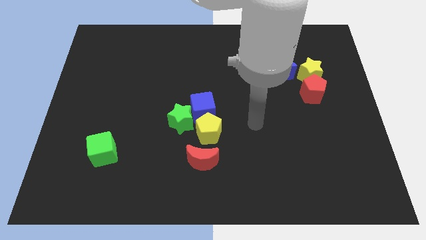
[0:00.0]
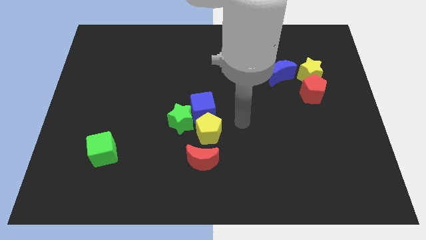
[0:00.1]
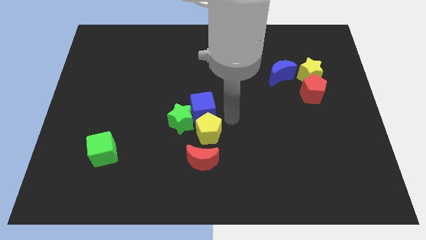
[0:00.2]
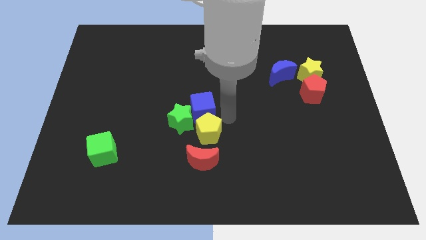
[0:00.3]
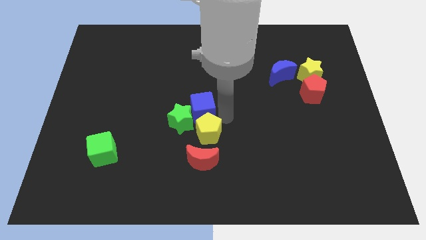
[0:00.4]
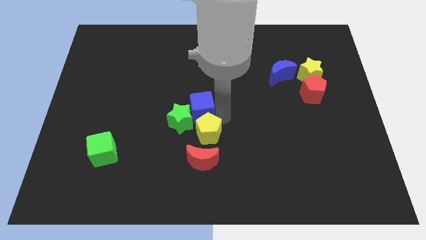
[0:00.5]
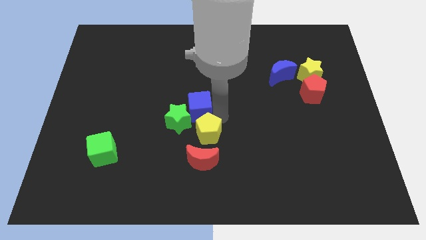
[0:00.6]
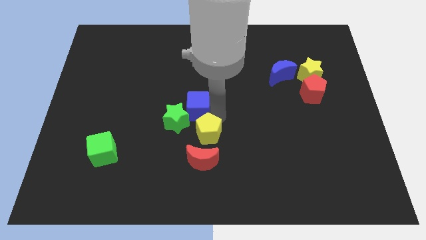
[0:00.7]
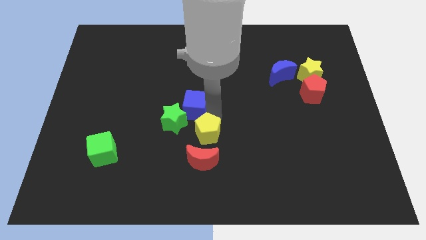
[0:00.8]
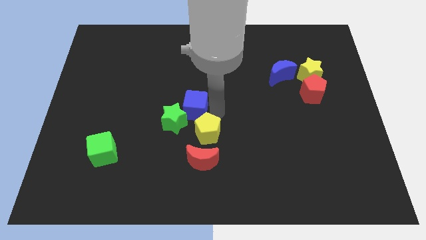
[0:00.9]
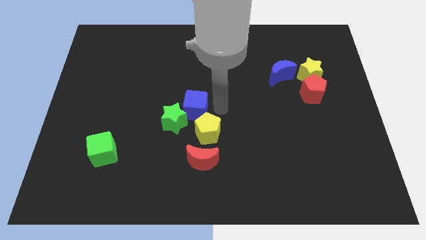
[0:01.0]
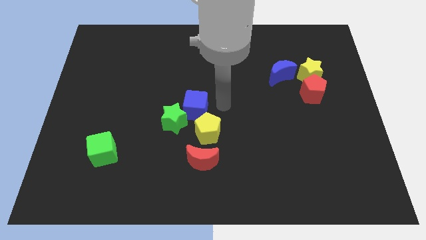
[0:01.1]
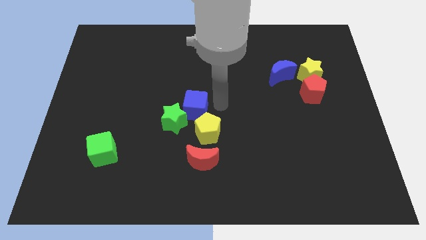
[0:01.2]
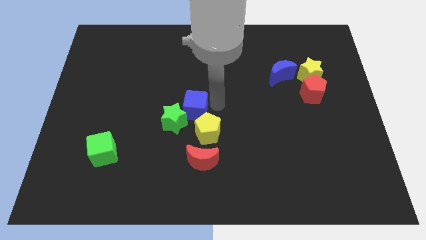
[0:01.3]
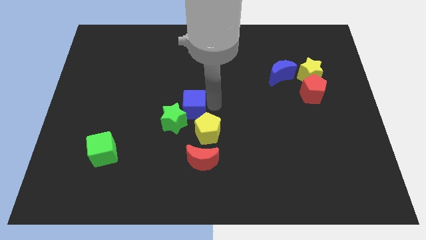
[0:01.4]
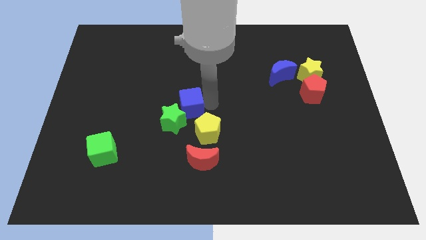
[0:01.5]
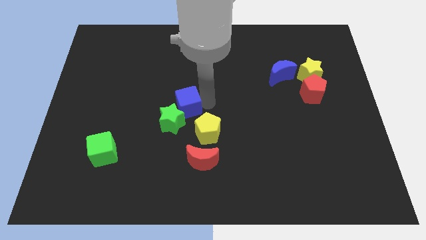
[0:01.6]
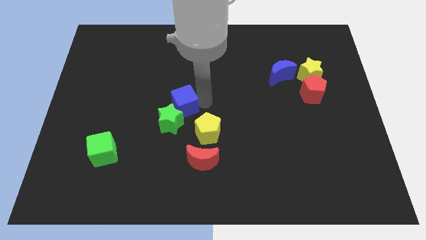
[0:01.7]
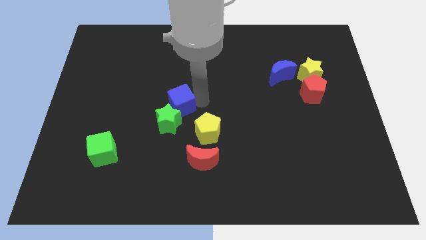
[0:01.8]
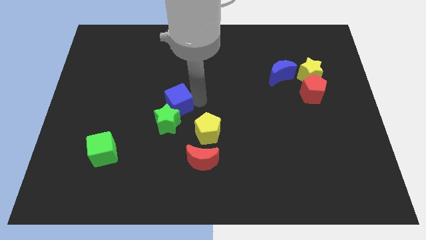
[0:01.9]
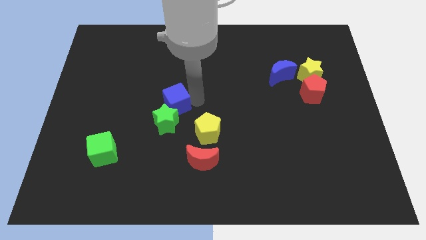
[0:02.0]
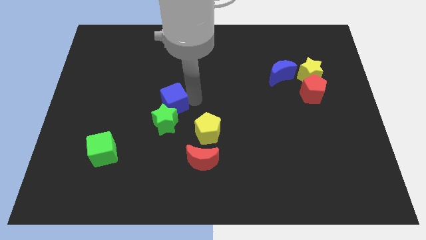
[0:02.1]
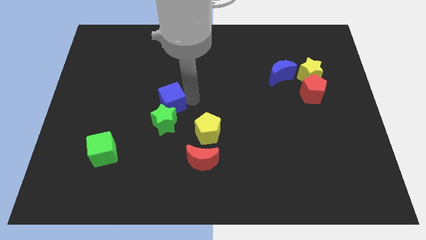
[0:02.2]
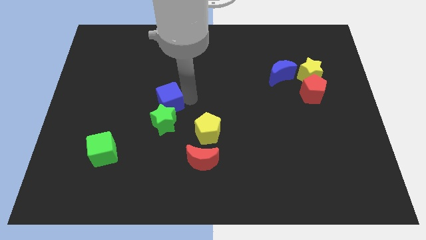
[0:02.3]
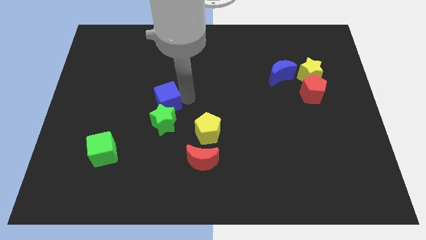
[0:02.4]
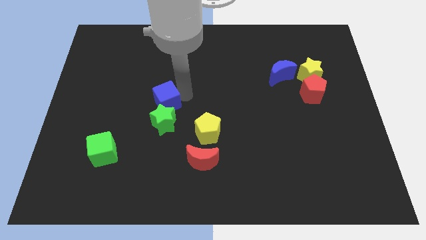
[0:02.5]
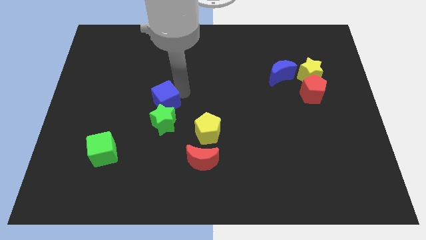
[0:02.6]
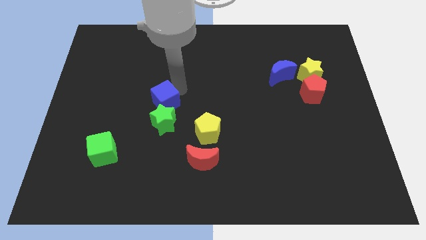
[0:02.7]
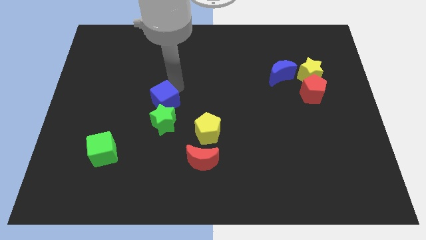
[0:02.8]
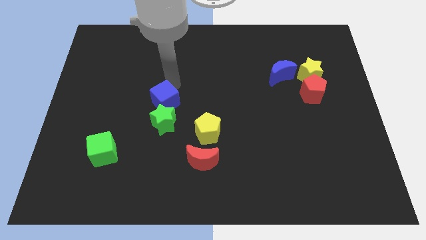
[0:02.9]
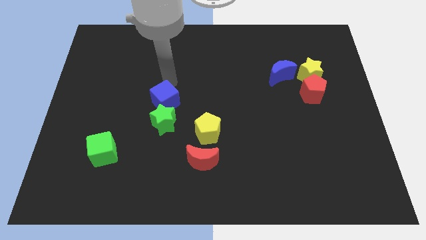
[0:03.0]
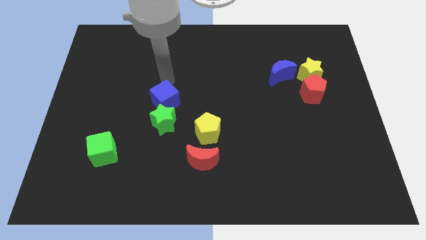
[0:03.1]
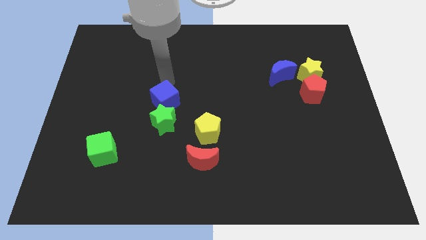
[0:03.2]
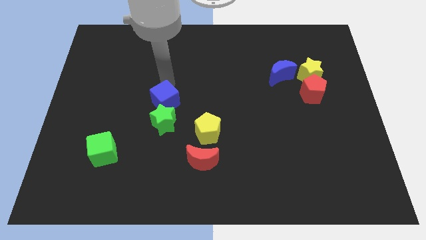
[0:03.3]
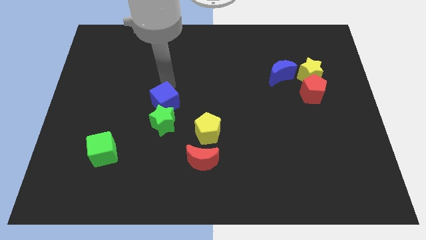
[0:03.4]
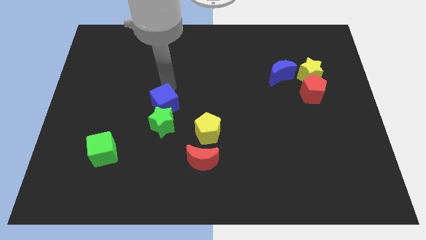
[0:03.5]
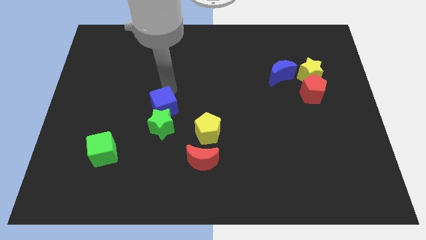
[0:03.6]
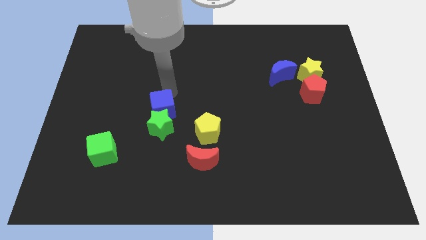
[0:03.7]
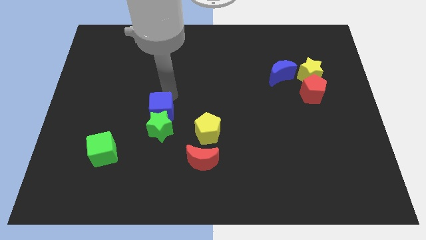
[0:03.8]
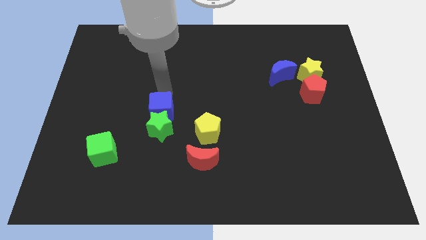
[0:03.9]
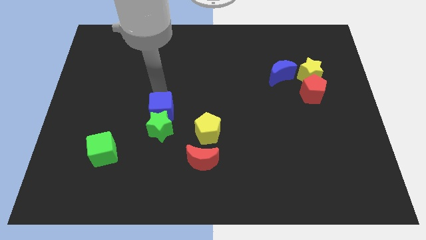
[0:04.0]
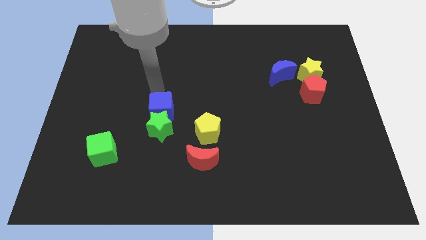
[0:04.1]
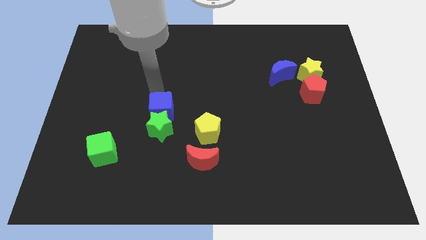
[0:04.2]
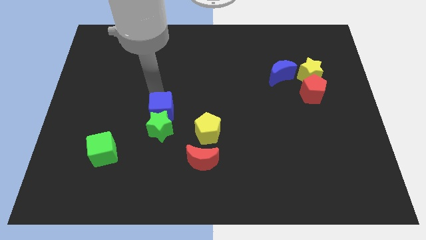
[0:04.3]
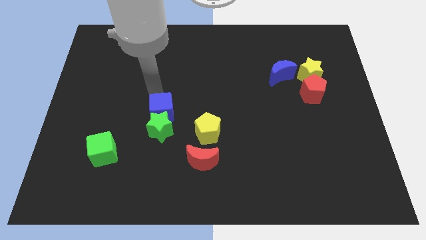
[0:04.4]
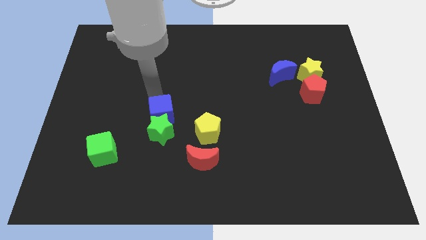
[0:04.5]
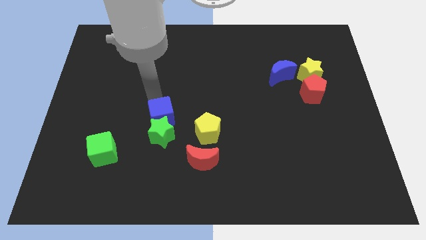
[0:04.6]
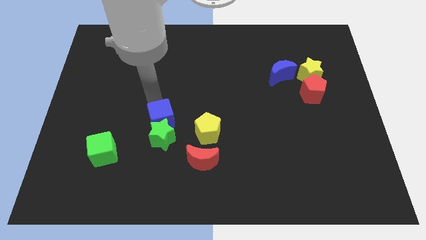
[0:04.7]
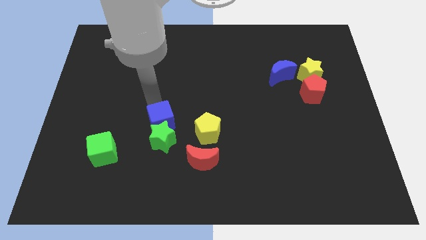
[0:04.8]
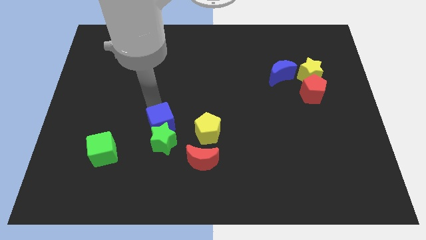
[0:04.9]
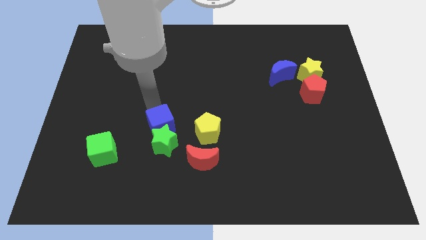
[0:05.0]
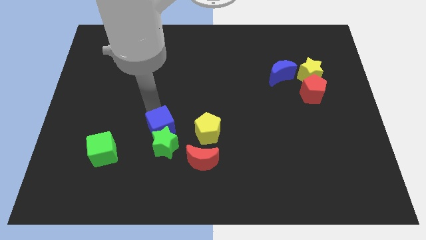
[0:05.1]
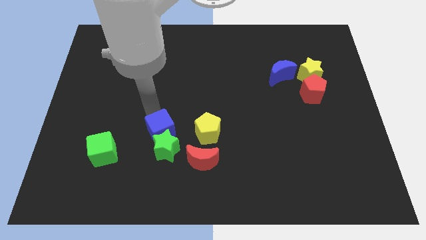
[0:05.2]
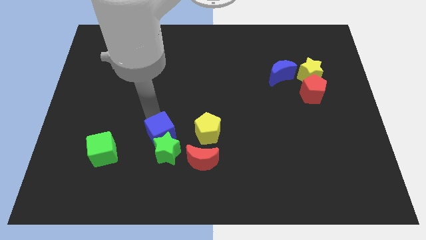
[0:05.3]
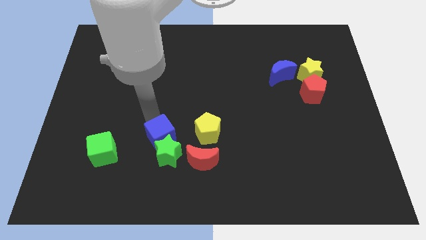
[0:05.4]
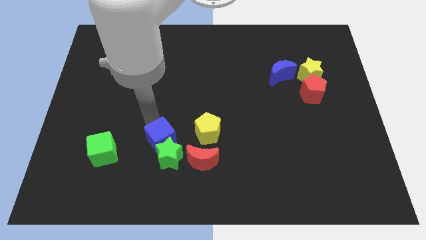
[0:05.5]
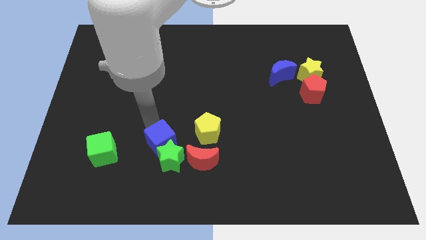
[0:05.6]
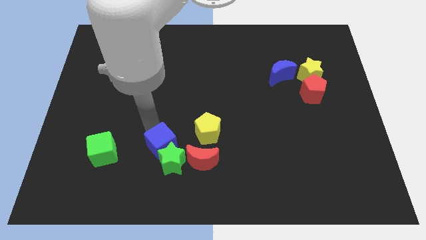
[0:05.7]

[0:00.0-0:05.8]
push the blue cube to the bottom left of the yellow pentagon

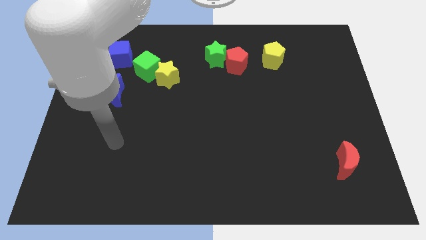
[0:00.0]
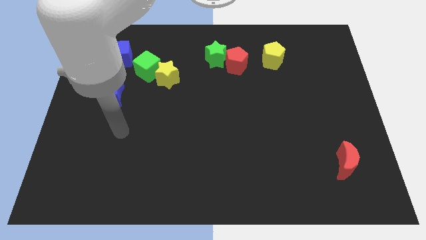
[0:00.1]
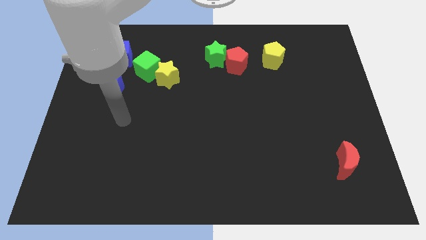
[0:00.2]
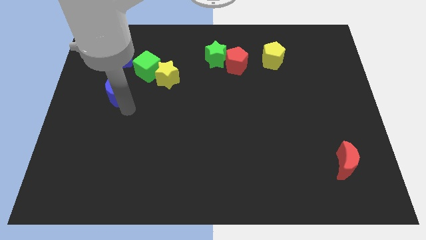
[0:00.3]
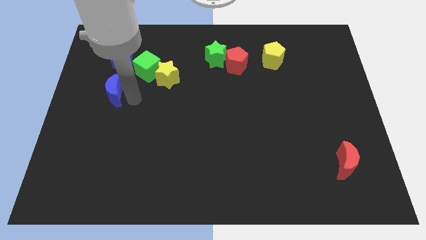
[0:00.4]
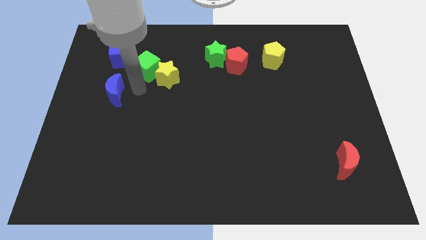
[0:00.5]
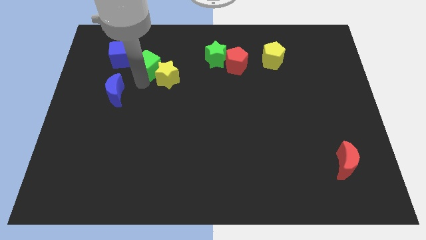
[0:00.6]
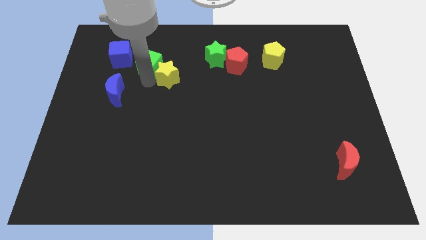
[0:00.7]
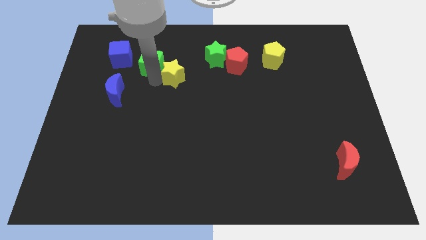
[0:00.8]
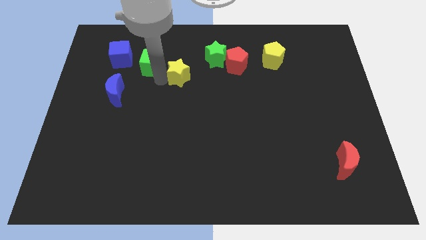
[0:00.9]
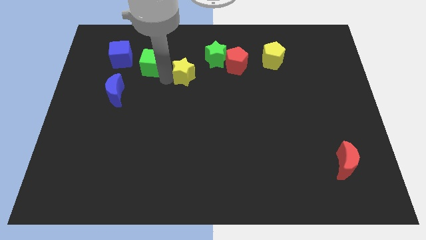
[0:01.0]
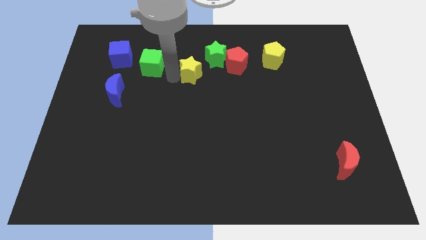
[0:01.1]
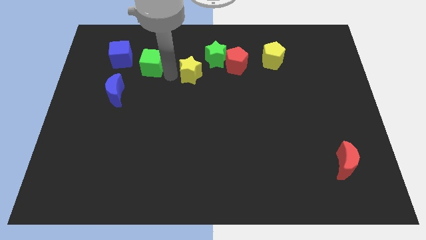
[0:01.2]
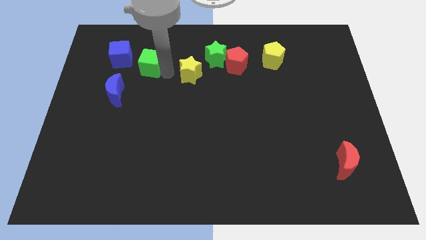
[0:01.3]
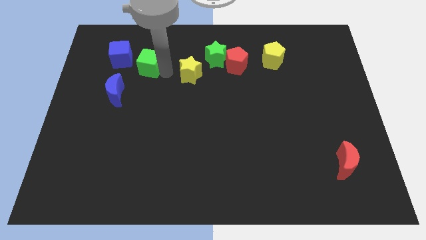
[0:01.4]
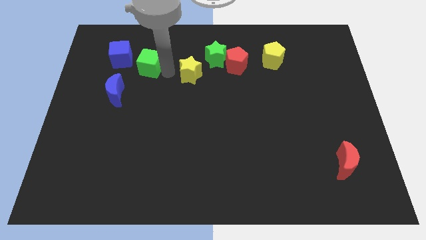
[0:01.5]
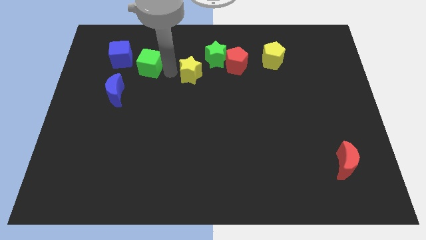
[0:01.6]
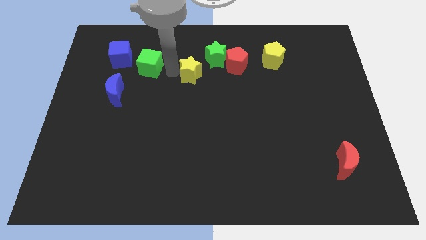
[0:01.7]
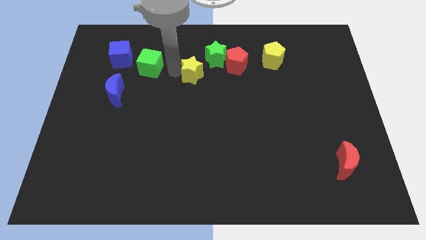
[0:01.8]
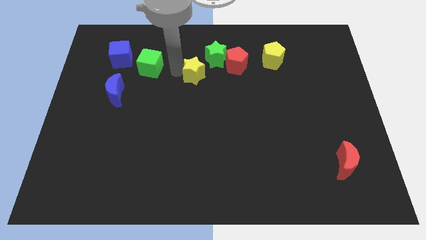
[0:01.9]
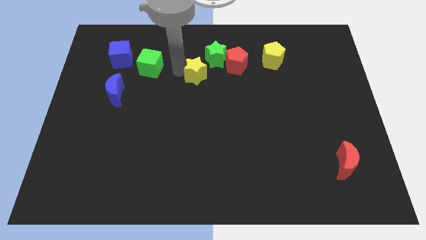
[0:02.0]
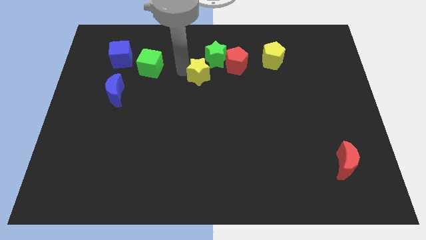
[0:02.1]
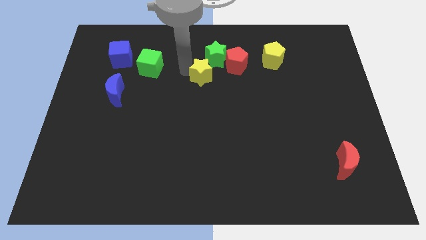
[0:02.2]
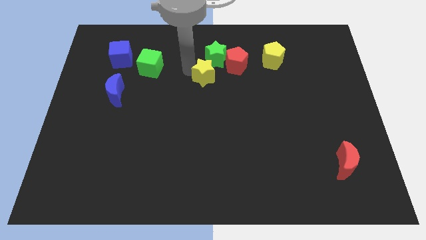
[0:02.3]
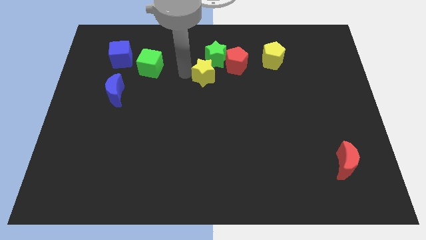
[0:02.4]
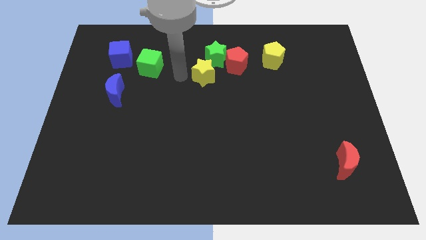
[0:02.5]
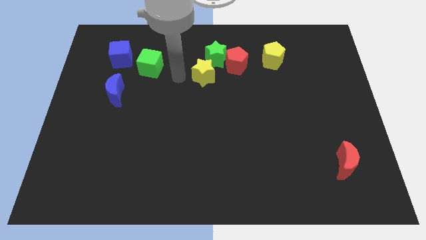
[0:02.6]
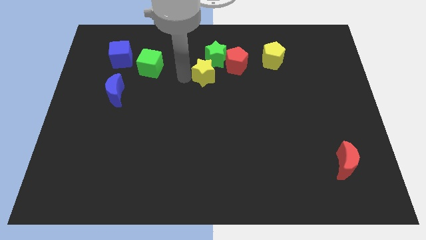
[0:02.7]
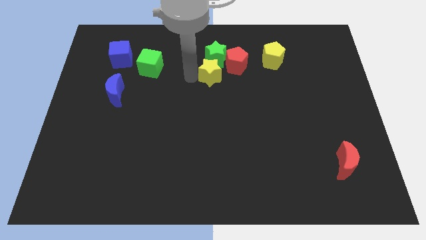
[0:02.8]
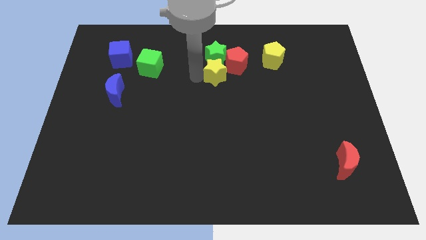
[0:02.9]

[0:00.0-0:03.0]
move the yellow star to the bottom right of the green star
